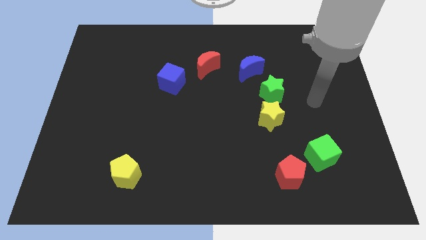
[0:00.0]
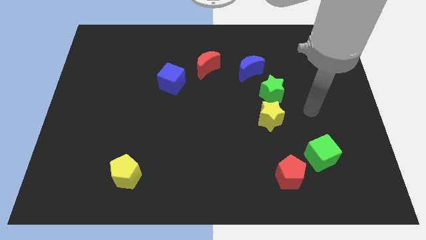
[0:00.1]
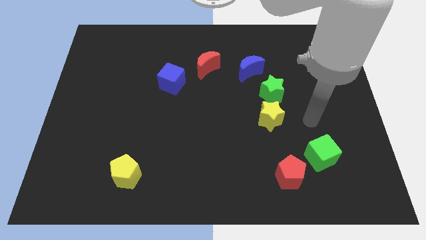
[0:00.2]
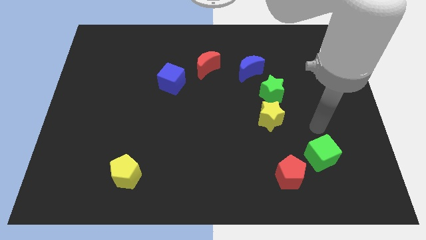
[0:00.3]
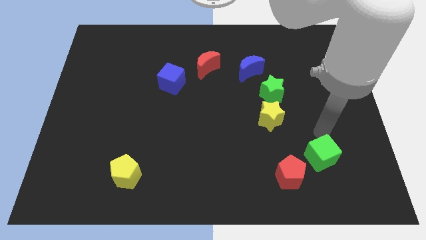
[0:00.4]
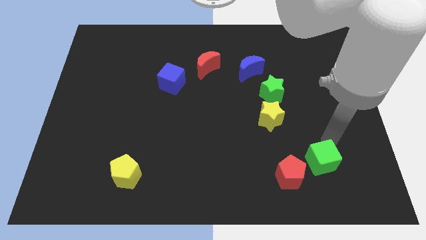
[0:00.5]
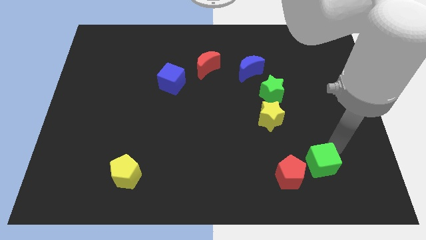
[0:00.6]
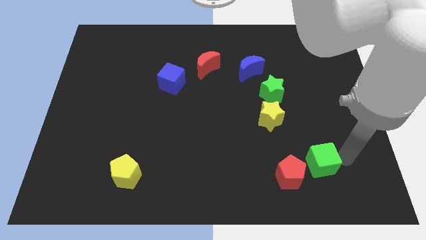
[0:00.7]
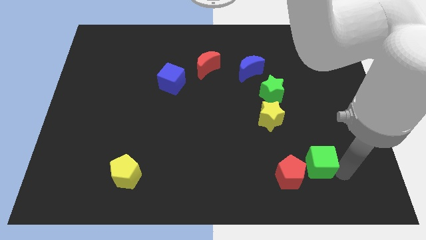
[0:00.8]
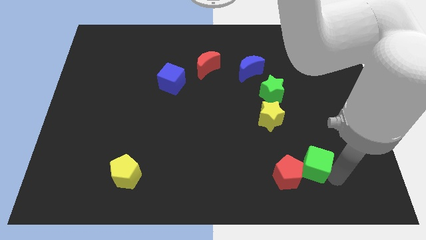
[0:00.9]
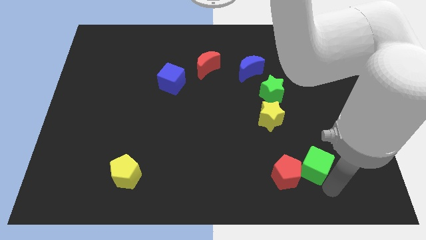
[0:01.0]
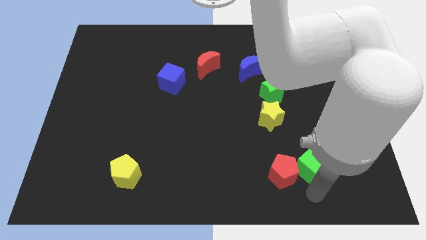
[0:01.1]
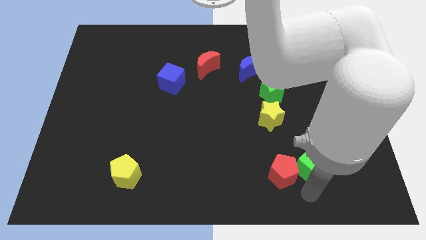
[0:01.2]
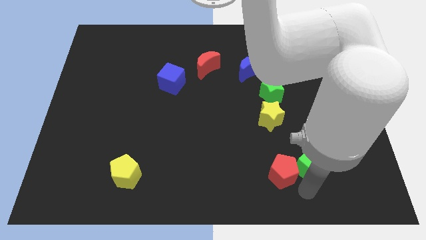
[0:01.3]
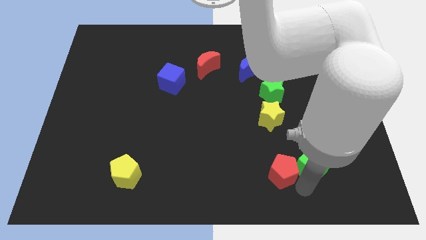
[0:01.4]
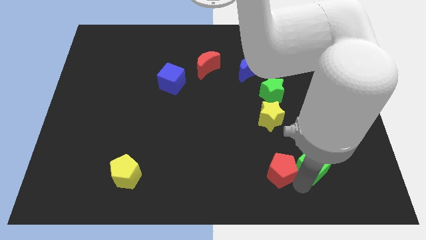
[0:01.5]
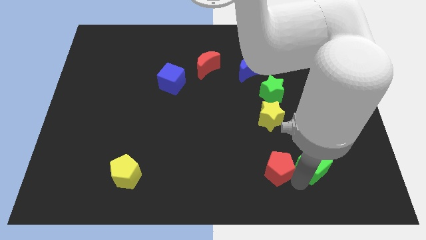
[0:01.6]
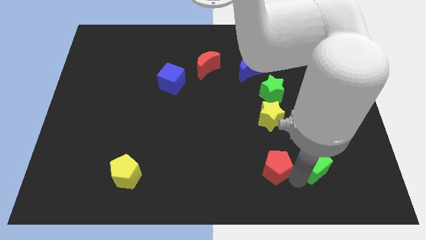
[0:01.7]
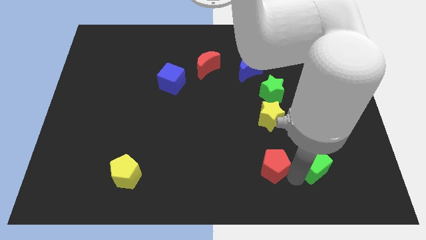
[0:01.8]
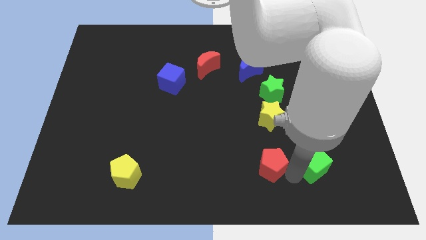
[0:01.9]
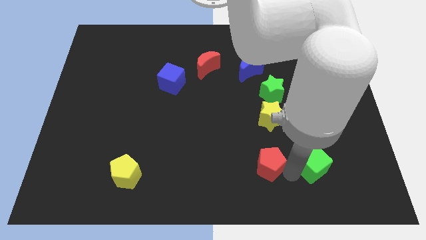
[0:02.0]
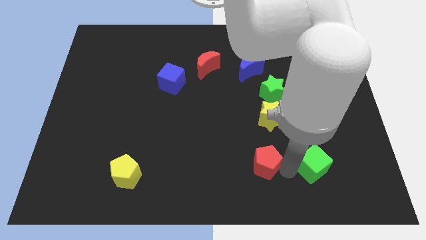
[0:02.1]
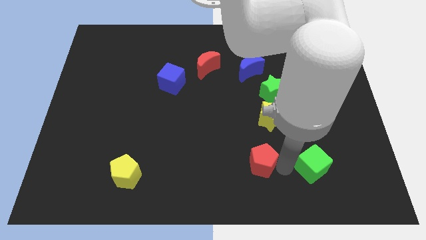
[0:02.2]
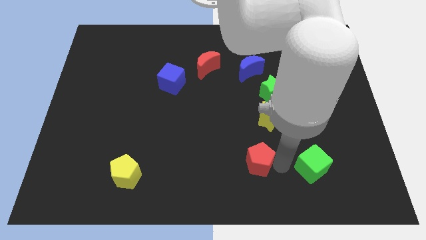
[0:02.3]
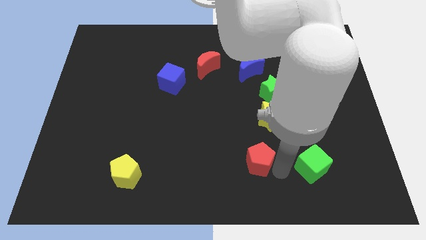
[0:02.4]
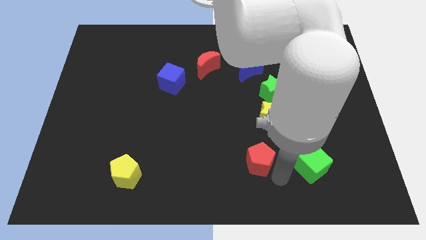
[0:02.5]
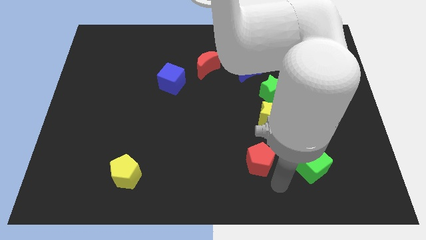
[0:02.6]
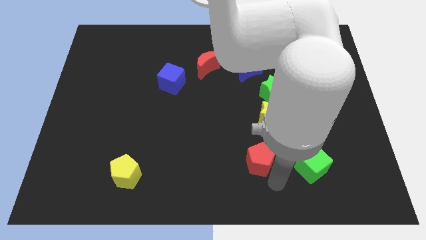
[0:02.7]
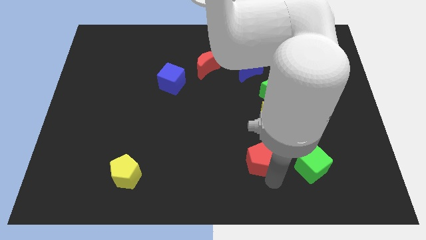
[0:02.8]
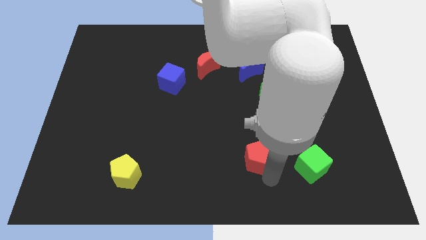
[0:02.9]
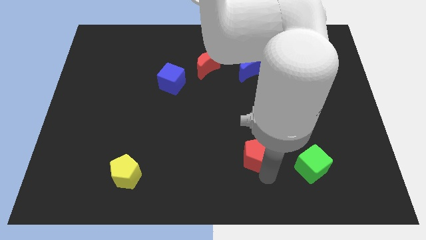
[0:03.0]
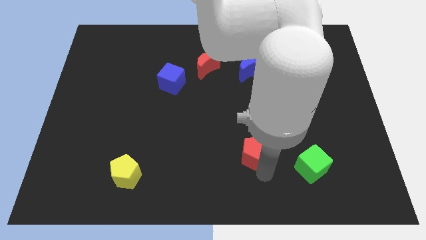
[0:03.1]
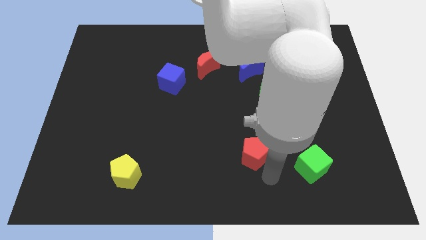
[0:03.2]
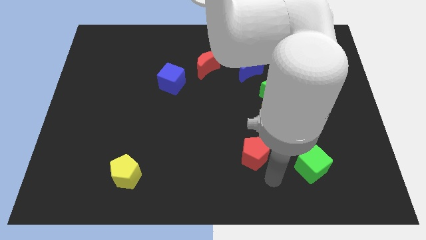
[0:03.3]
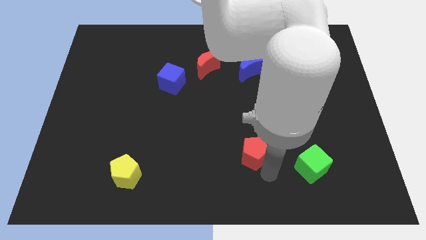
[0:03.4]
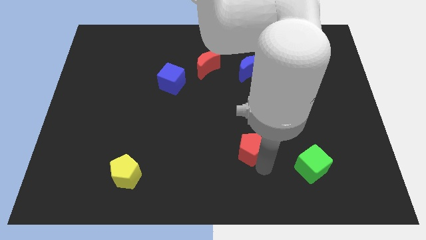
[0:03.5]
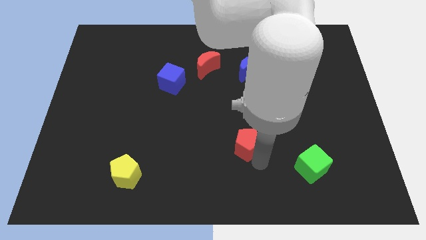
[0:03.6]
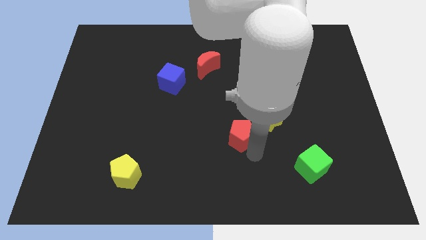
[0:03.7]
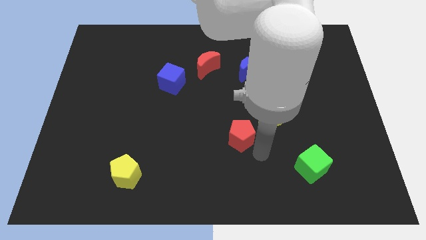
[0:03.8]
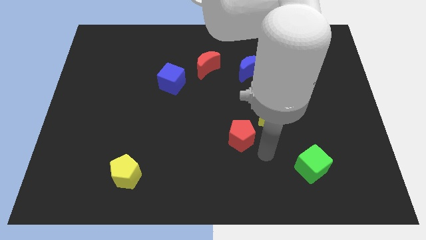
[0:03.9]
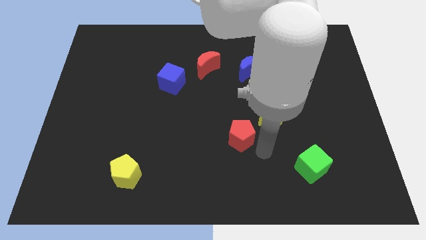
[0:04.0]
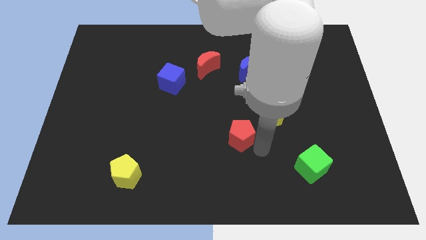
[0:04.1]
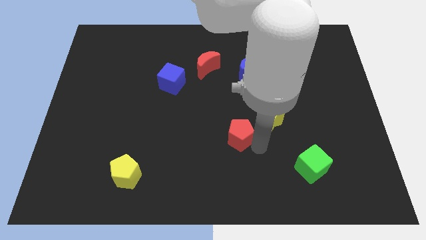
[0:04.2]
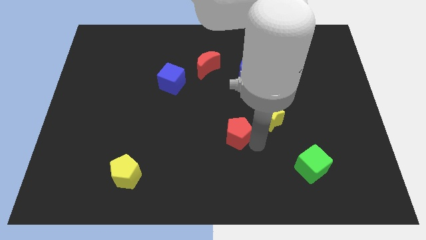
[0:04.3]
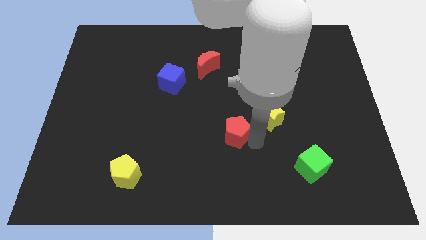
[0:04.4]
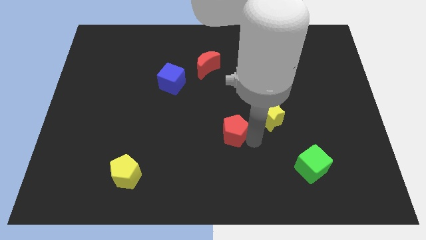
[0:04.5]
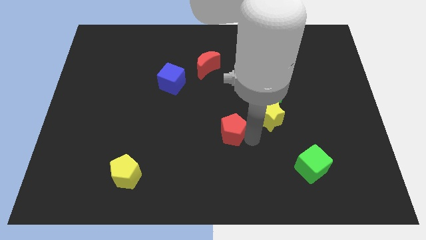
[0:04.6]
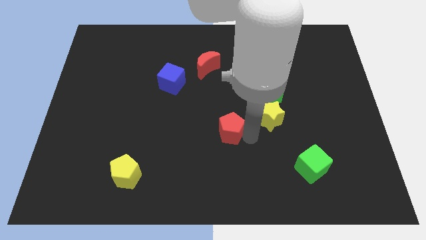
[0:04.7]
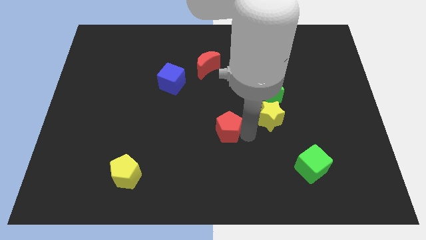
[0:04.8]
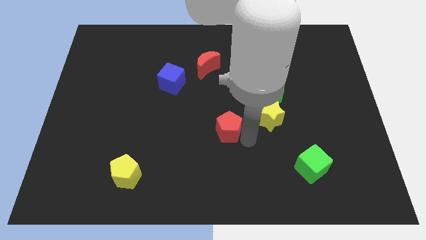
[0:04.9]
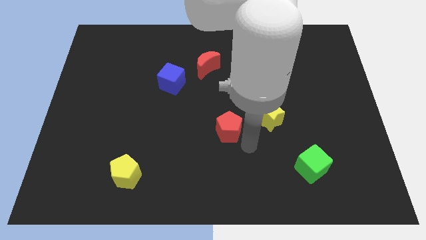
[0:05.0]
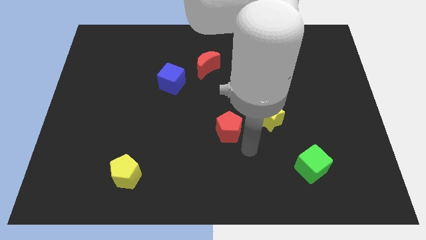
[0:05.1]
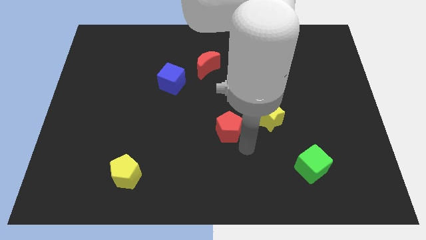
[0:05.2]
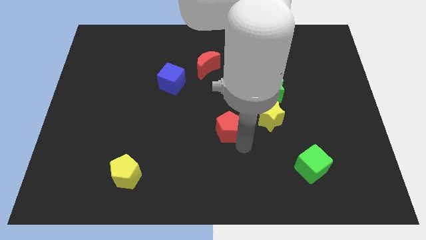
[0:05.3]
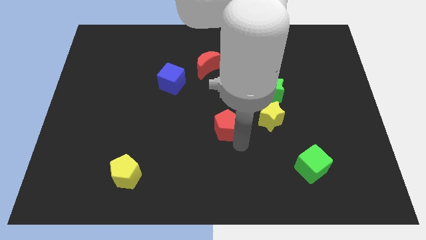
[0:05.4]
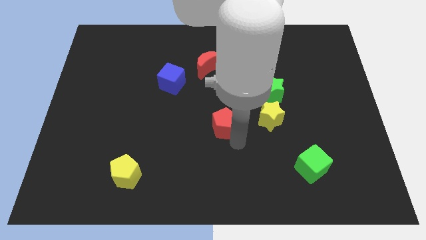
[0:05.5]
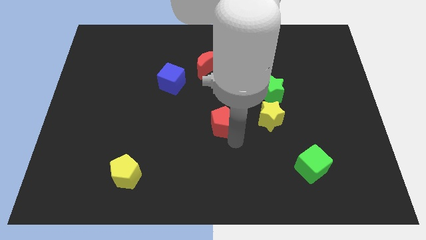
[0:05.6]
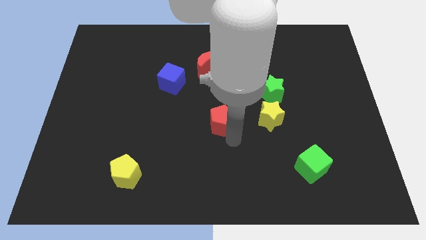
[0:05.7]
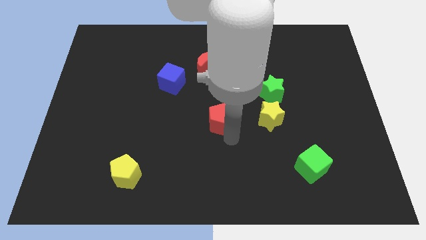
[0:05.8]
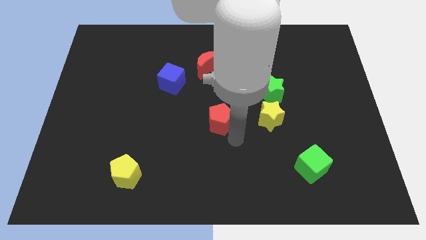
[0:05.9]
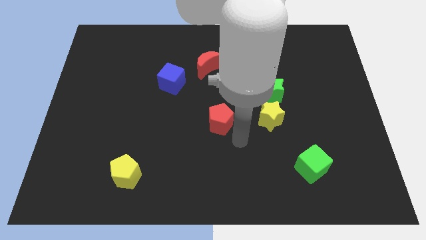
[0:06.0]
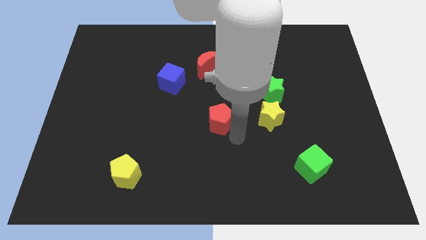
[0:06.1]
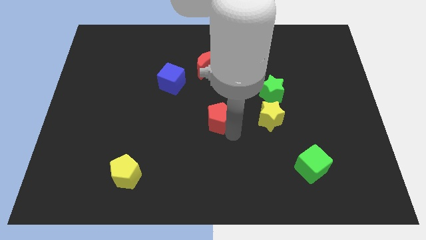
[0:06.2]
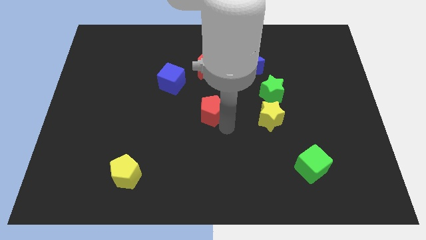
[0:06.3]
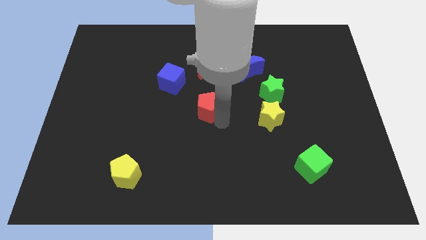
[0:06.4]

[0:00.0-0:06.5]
slide the red pentagon diagonally down and to the right of the blue cube
